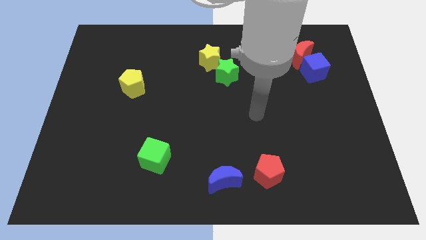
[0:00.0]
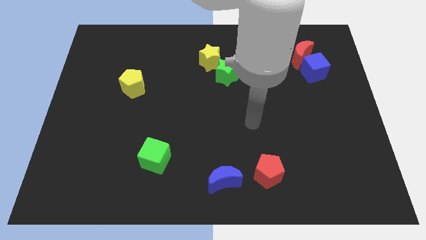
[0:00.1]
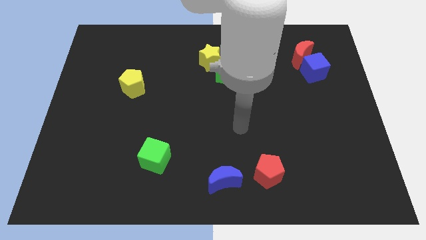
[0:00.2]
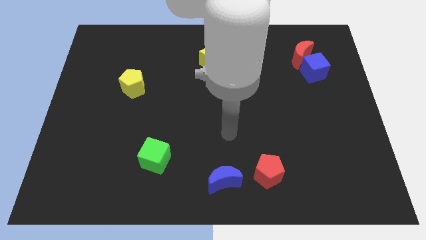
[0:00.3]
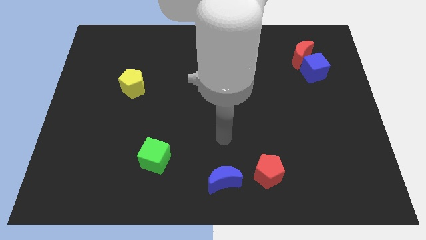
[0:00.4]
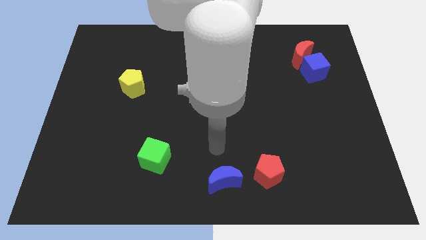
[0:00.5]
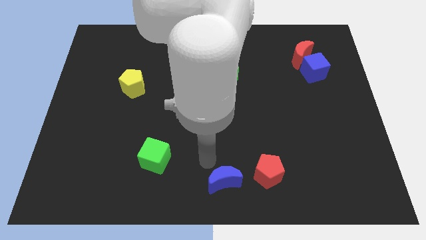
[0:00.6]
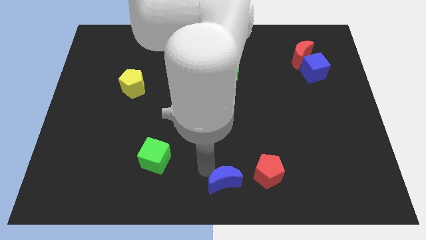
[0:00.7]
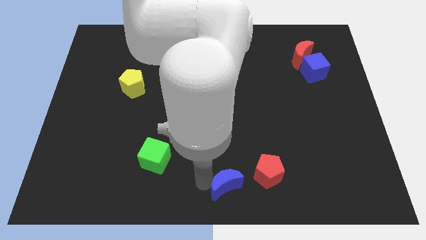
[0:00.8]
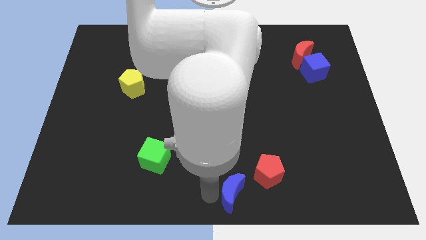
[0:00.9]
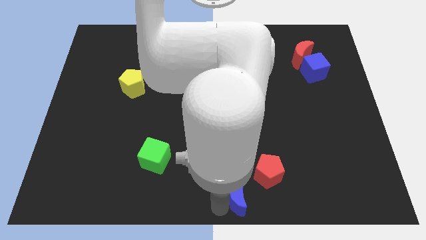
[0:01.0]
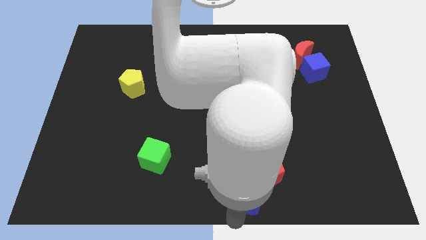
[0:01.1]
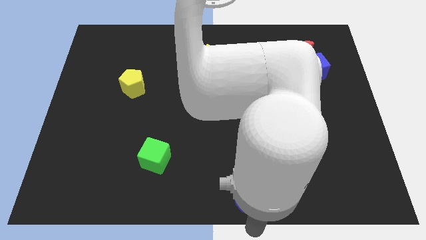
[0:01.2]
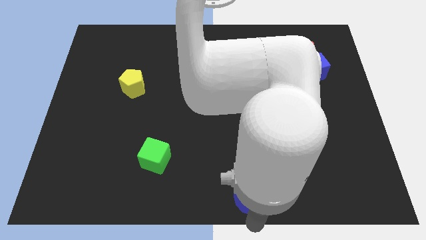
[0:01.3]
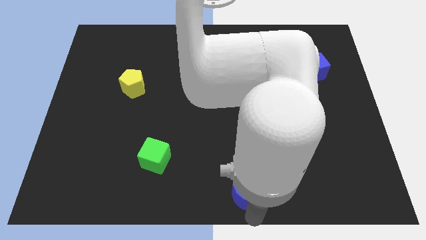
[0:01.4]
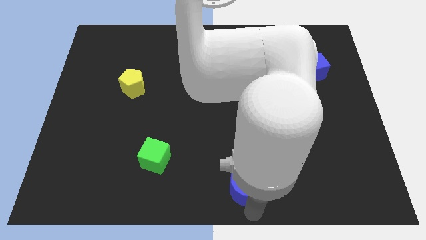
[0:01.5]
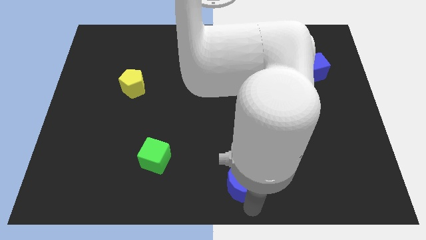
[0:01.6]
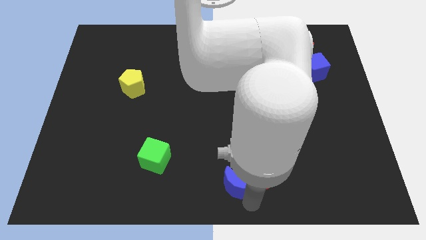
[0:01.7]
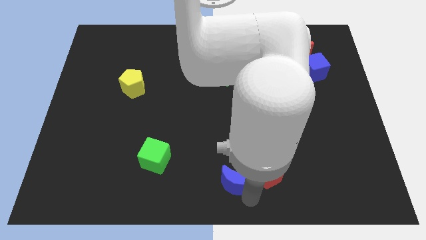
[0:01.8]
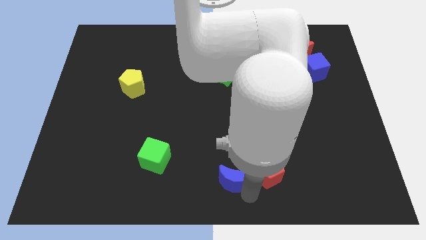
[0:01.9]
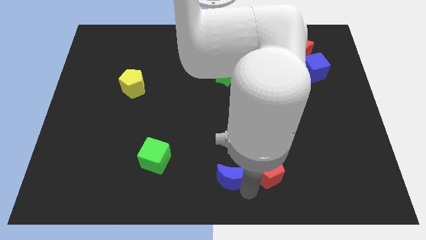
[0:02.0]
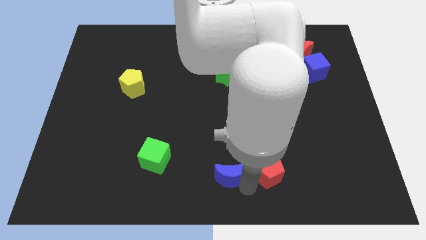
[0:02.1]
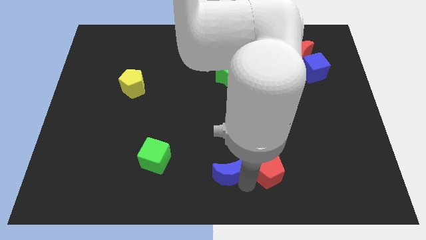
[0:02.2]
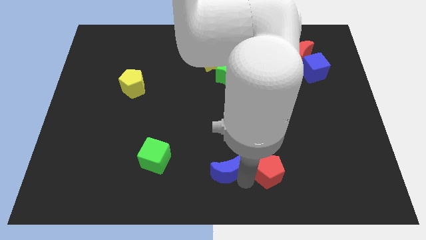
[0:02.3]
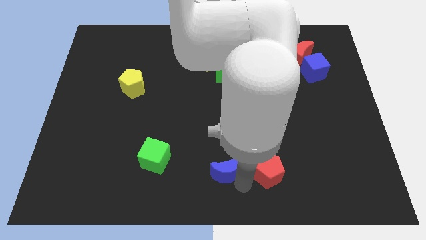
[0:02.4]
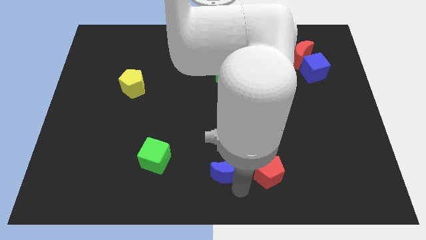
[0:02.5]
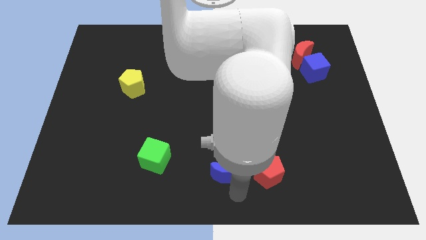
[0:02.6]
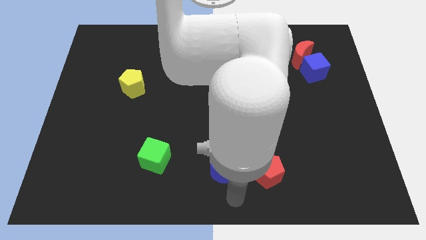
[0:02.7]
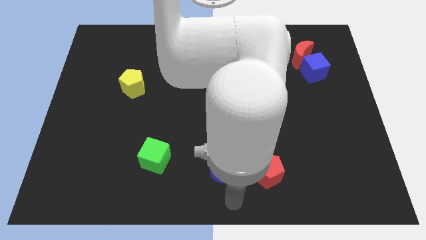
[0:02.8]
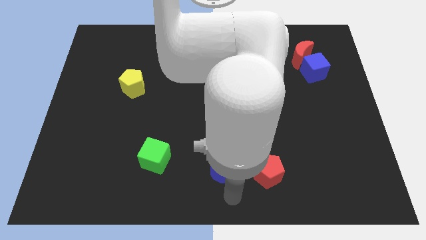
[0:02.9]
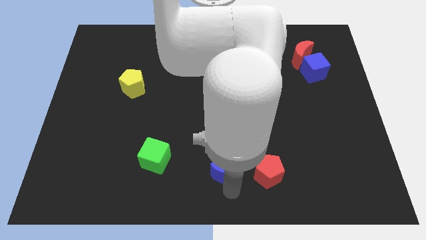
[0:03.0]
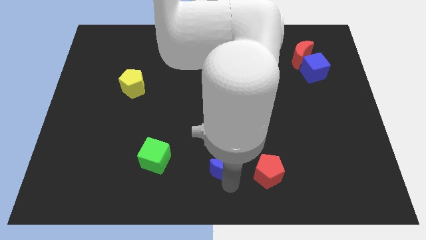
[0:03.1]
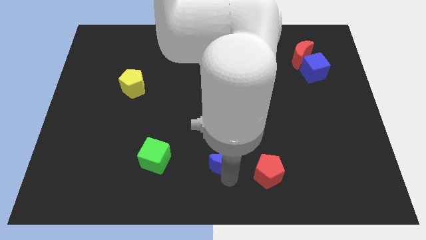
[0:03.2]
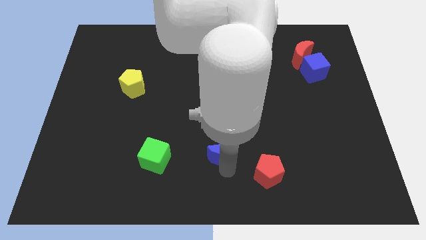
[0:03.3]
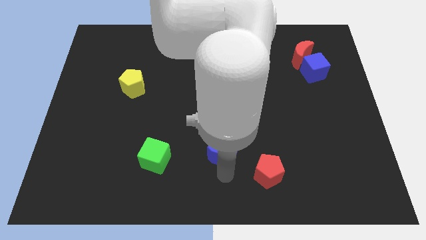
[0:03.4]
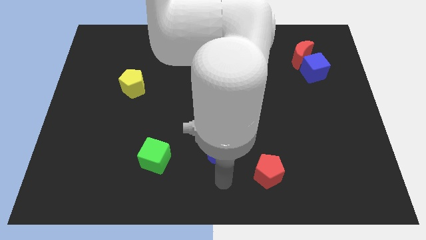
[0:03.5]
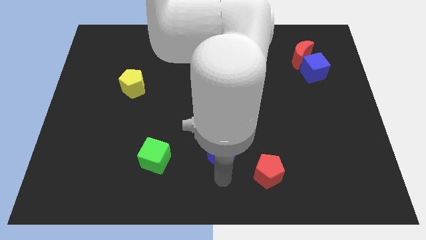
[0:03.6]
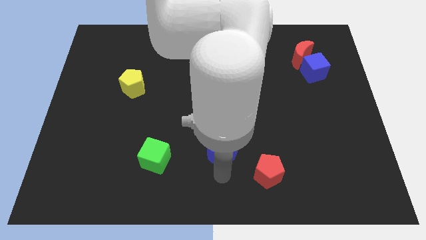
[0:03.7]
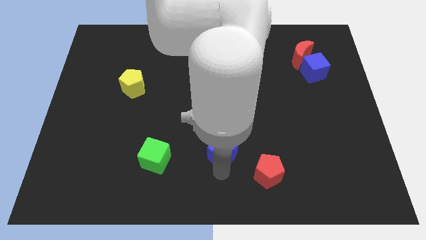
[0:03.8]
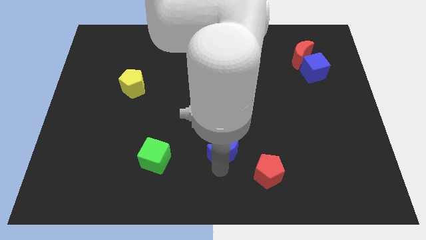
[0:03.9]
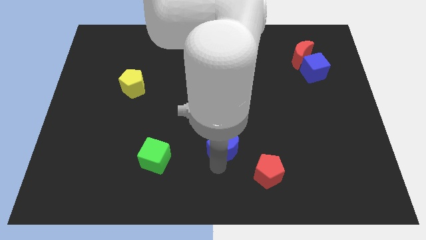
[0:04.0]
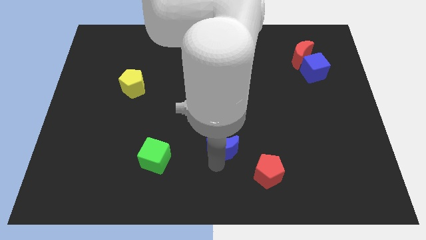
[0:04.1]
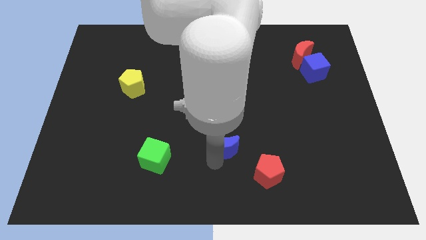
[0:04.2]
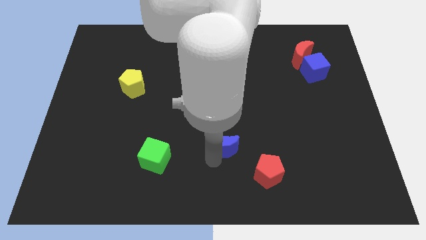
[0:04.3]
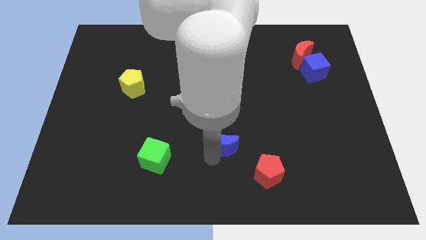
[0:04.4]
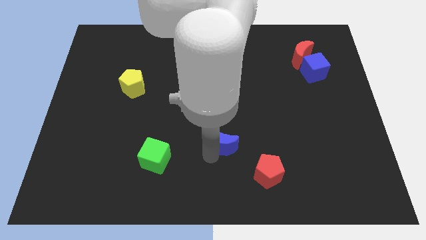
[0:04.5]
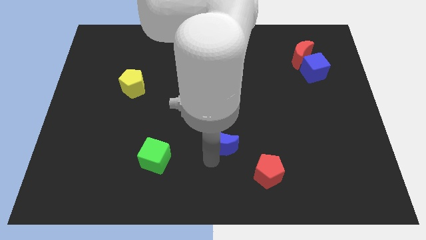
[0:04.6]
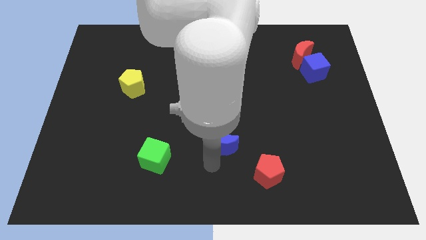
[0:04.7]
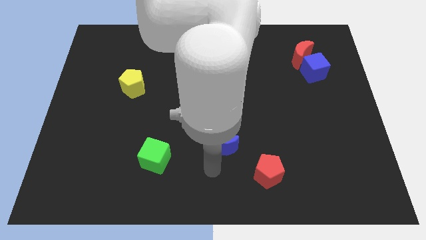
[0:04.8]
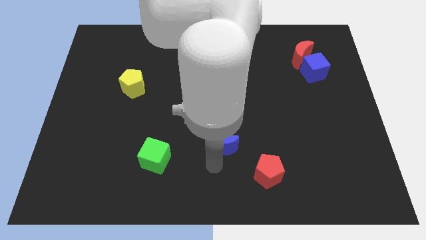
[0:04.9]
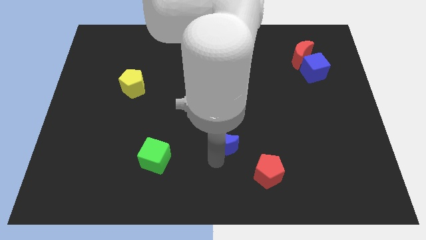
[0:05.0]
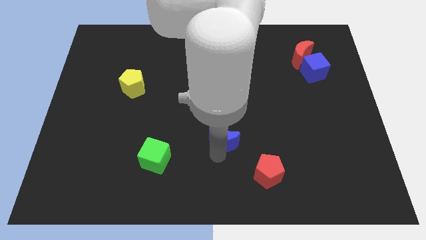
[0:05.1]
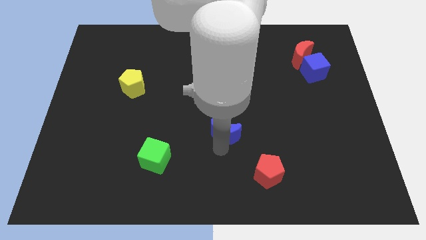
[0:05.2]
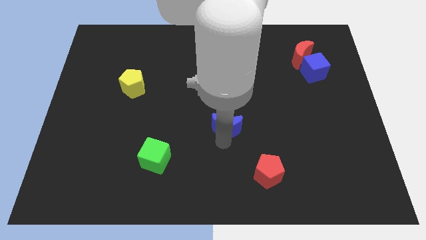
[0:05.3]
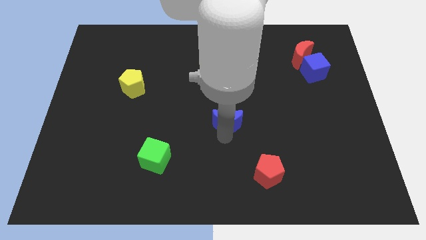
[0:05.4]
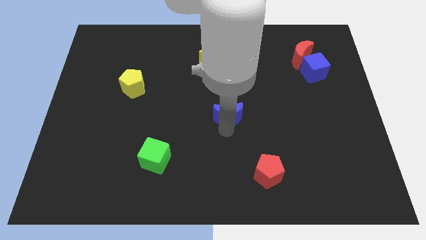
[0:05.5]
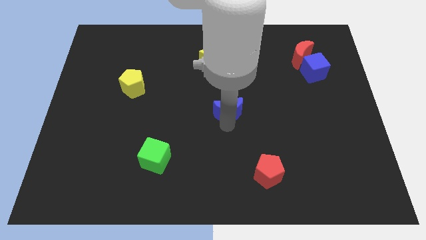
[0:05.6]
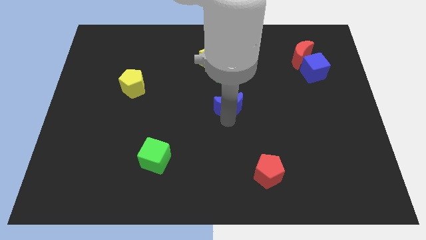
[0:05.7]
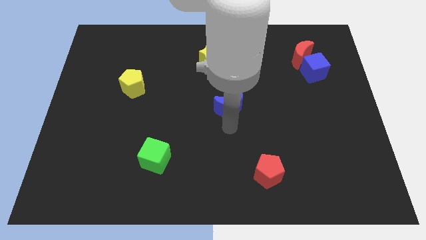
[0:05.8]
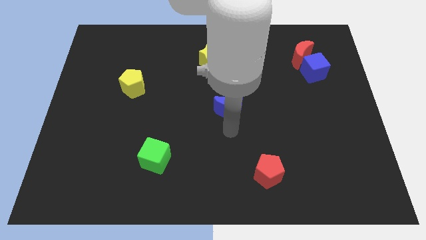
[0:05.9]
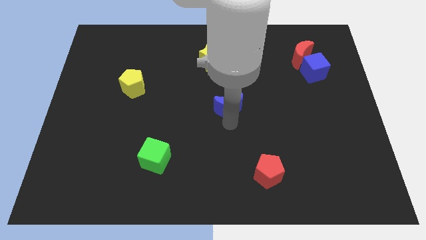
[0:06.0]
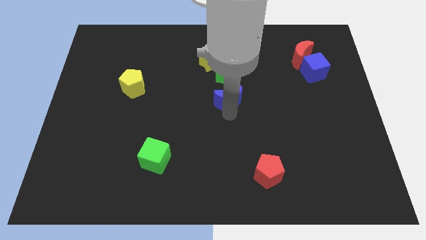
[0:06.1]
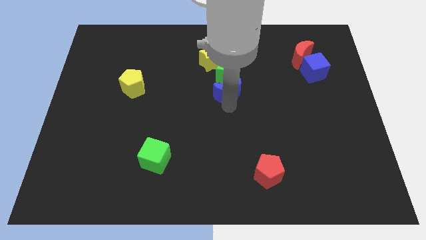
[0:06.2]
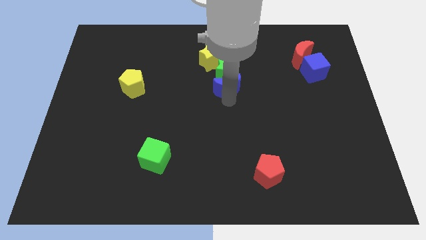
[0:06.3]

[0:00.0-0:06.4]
slide the blue moon next to the green star

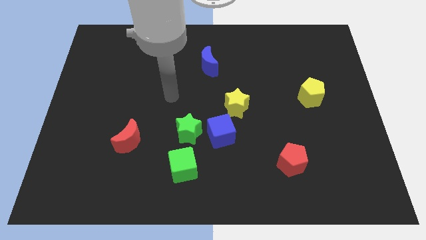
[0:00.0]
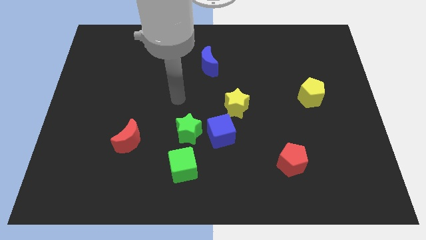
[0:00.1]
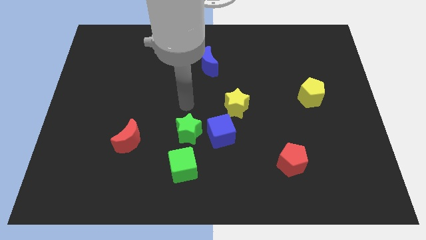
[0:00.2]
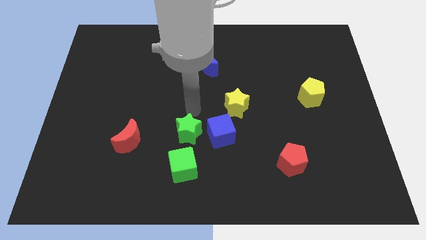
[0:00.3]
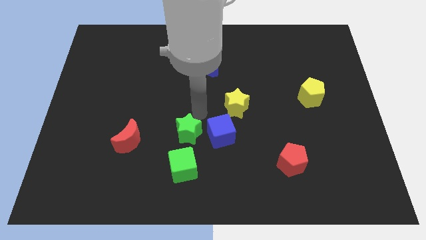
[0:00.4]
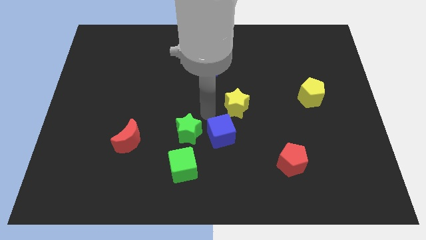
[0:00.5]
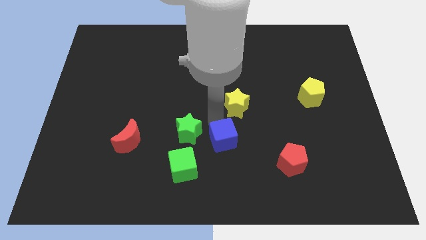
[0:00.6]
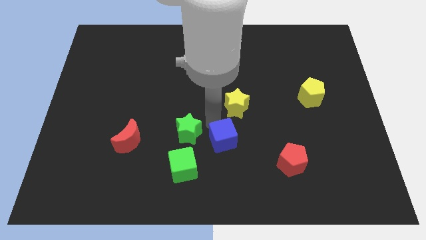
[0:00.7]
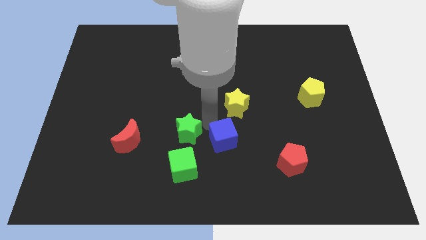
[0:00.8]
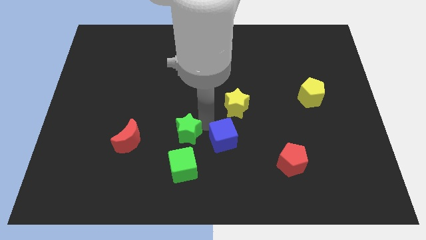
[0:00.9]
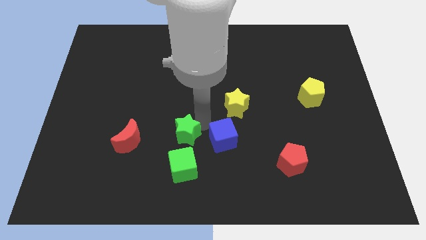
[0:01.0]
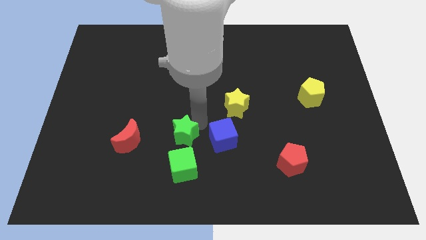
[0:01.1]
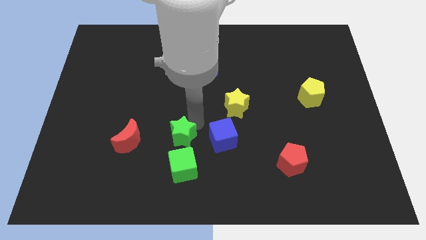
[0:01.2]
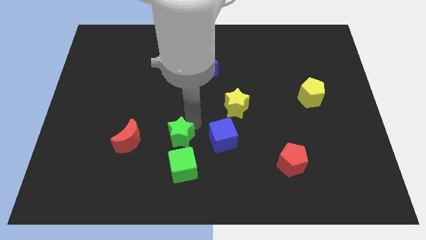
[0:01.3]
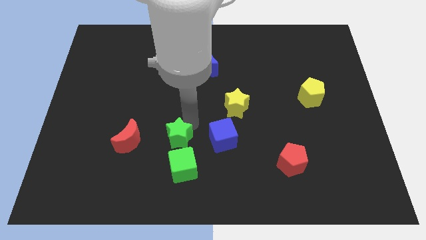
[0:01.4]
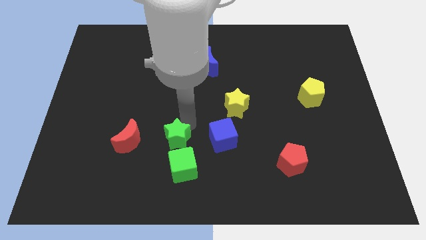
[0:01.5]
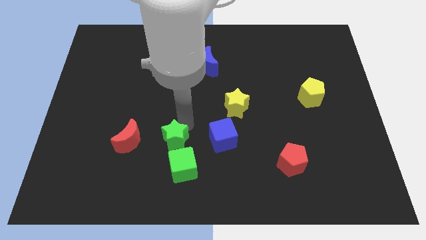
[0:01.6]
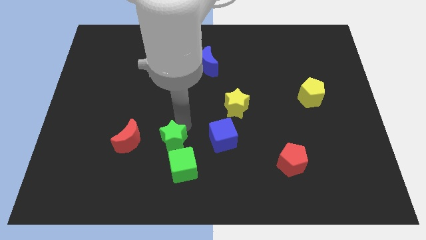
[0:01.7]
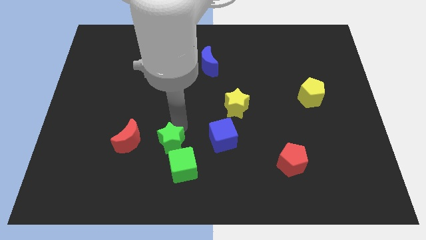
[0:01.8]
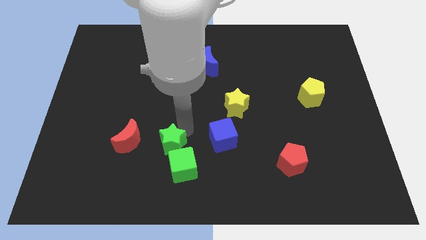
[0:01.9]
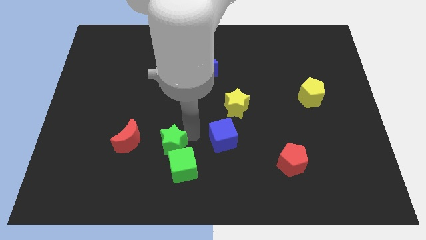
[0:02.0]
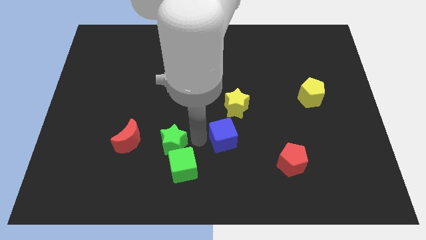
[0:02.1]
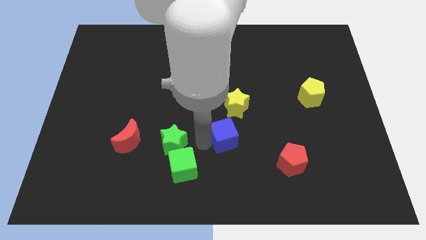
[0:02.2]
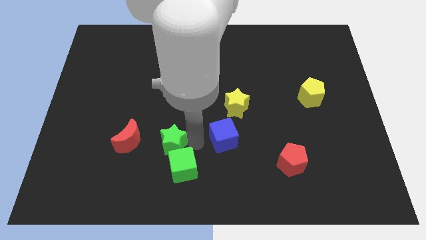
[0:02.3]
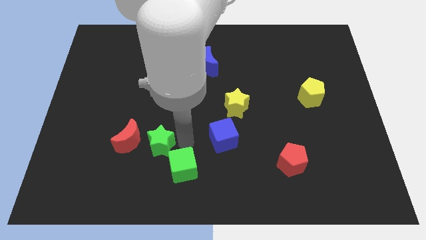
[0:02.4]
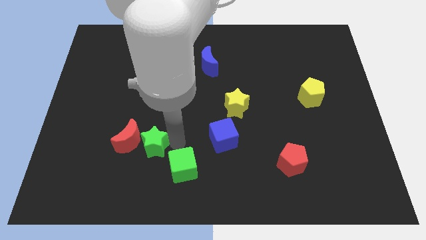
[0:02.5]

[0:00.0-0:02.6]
move the green star towards the red moon
